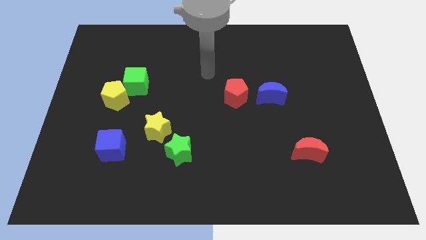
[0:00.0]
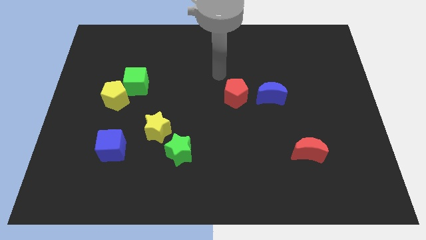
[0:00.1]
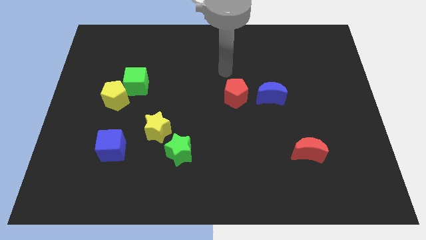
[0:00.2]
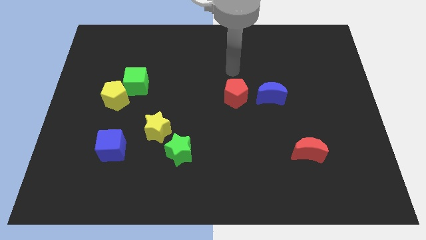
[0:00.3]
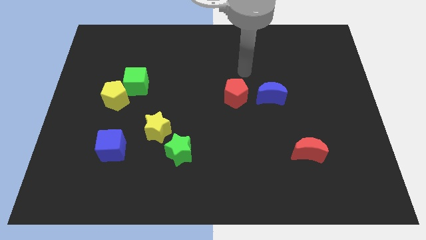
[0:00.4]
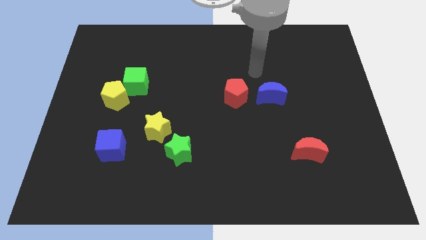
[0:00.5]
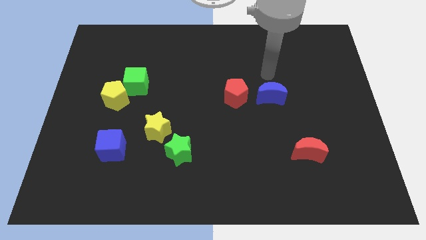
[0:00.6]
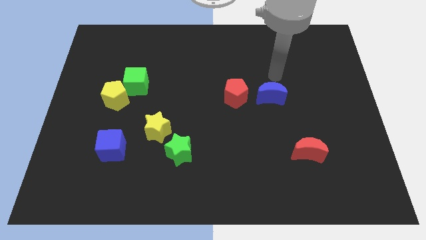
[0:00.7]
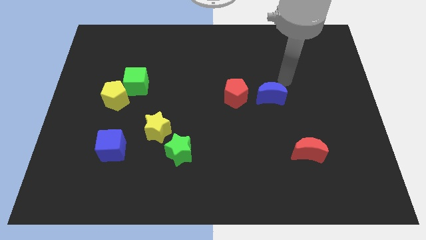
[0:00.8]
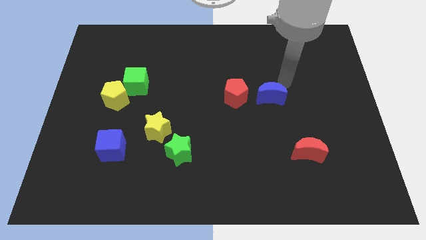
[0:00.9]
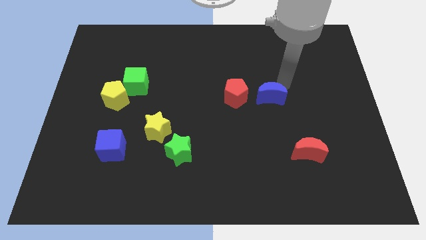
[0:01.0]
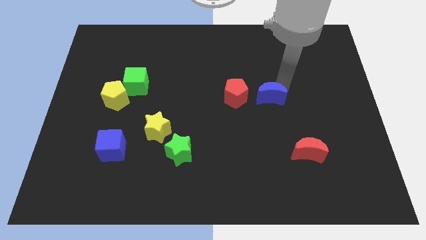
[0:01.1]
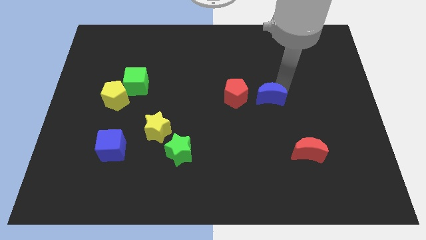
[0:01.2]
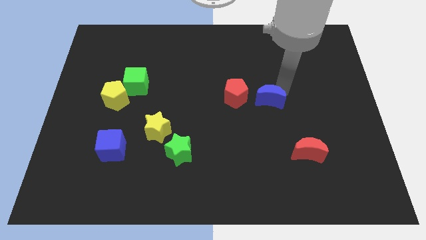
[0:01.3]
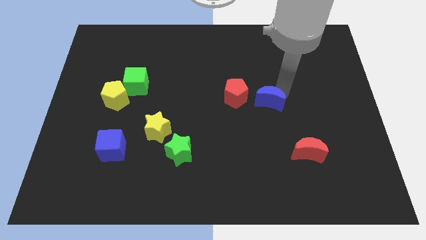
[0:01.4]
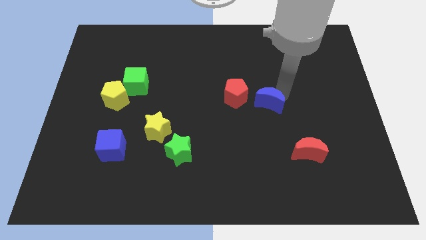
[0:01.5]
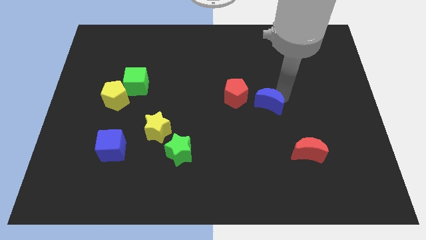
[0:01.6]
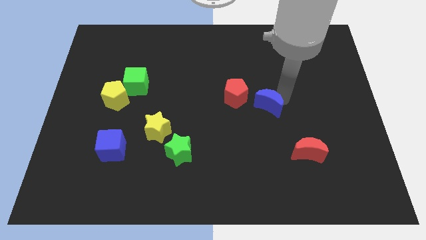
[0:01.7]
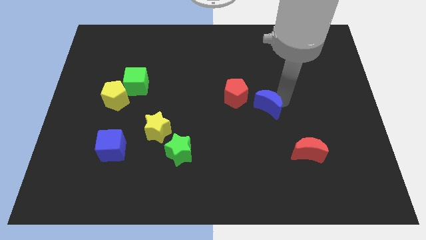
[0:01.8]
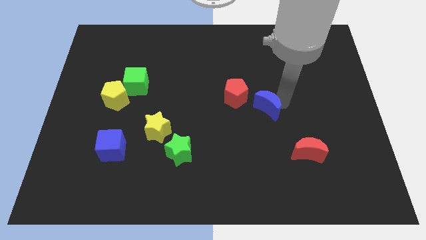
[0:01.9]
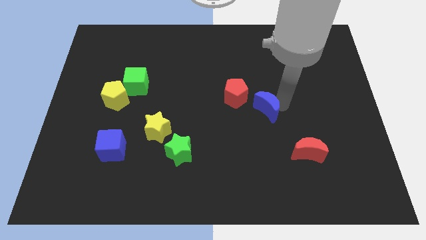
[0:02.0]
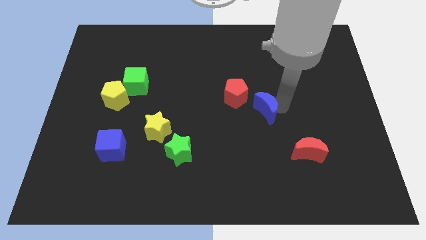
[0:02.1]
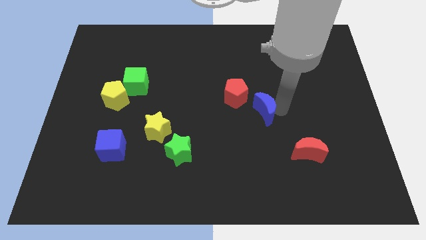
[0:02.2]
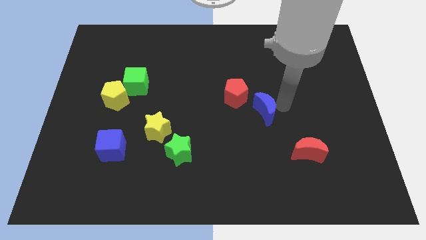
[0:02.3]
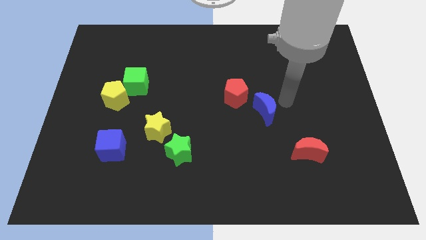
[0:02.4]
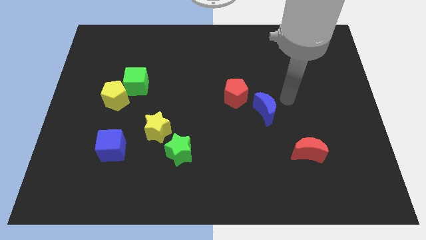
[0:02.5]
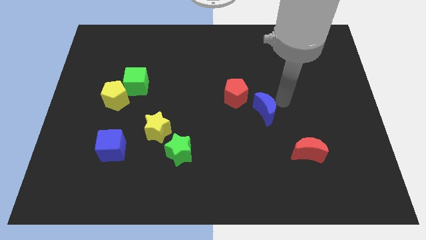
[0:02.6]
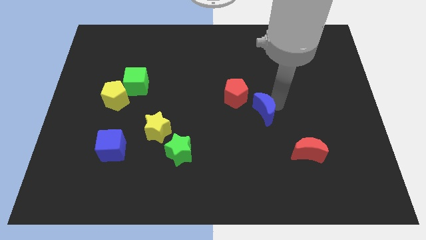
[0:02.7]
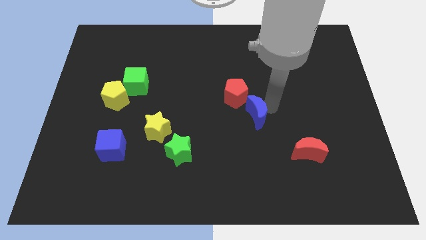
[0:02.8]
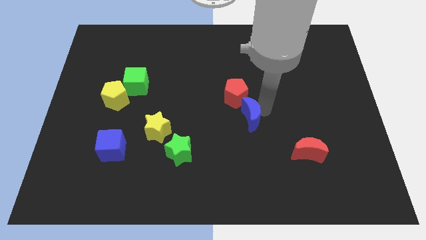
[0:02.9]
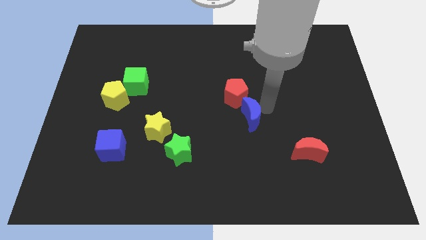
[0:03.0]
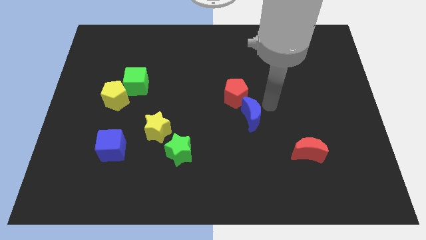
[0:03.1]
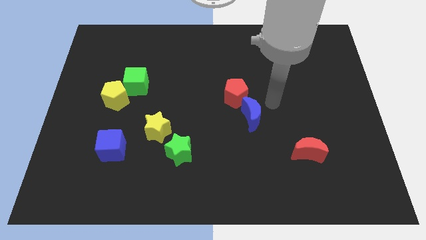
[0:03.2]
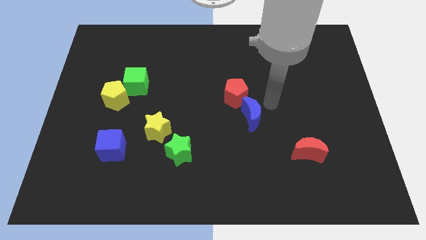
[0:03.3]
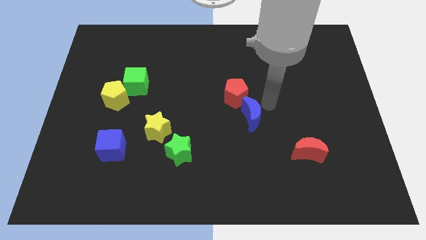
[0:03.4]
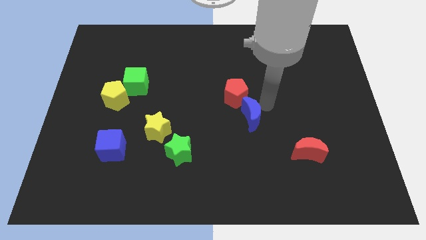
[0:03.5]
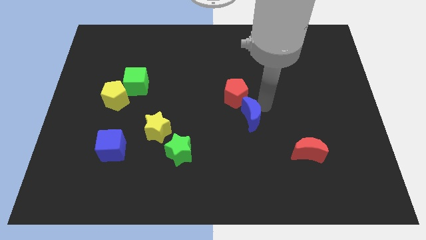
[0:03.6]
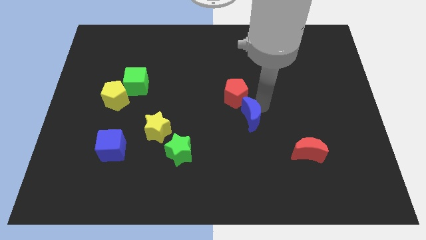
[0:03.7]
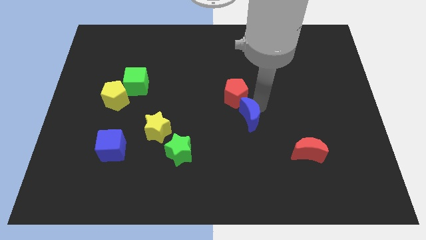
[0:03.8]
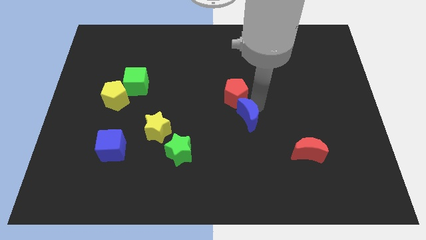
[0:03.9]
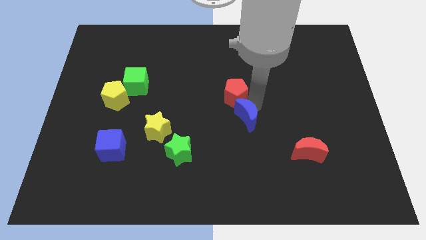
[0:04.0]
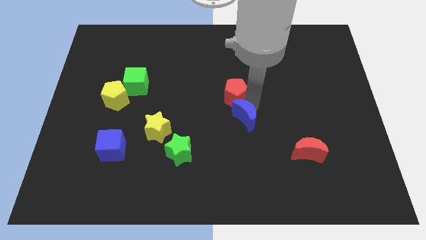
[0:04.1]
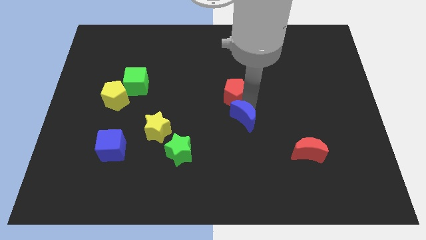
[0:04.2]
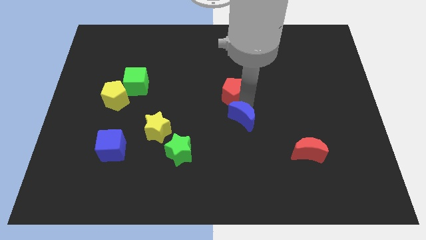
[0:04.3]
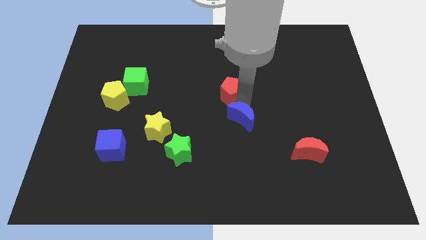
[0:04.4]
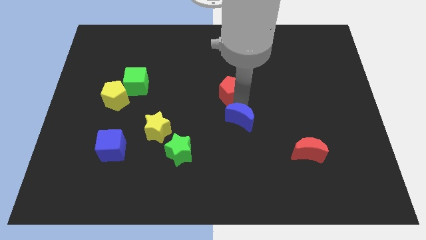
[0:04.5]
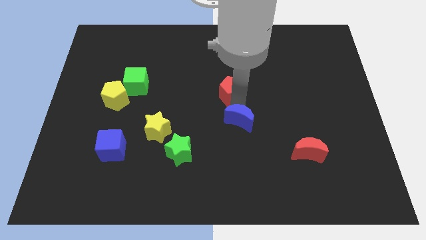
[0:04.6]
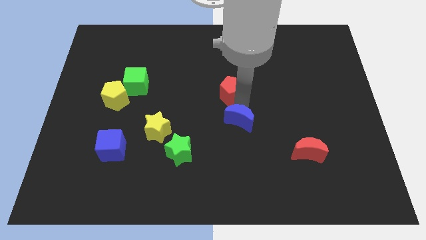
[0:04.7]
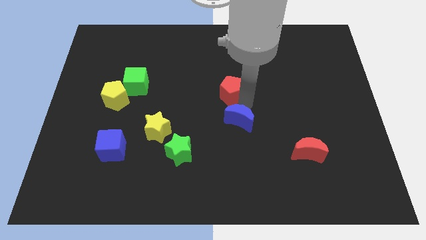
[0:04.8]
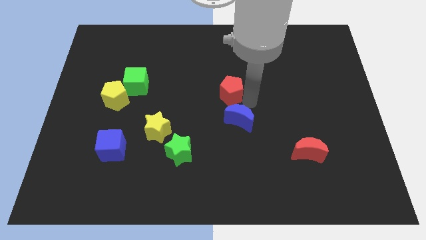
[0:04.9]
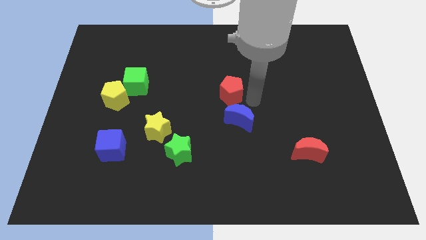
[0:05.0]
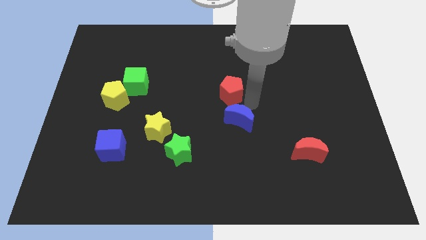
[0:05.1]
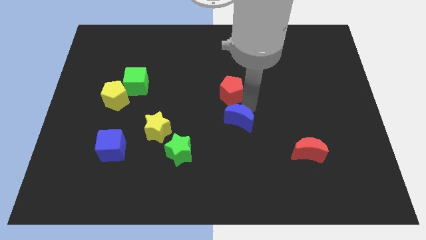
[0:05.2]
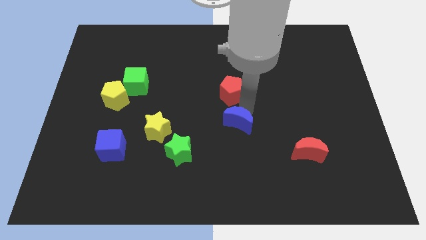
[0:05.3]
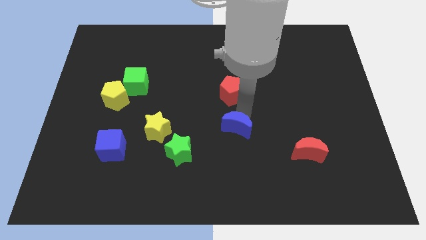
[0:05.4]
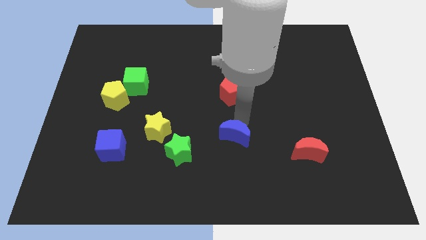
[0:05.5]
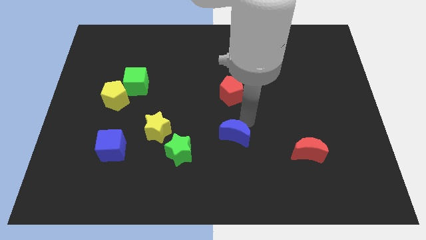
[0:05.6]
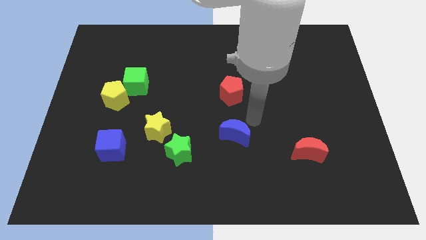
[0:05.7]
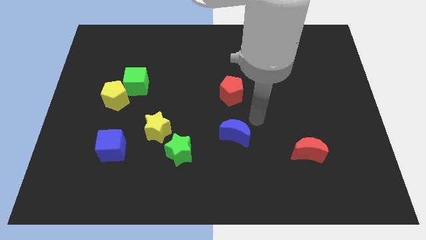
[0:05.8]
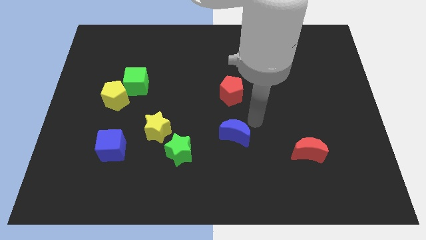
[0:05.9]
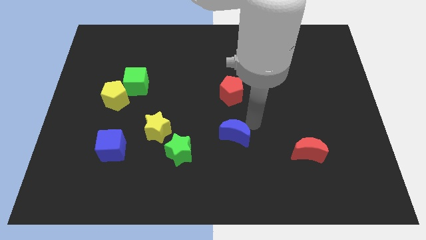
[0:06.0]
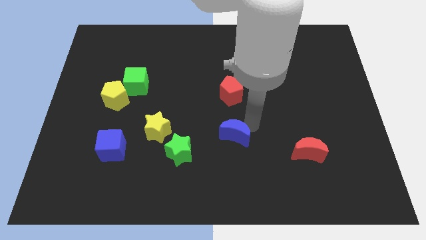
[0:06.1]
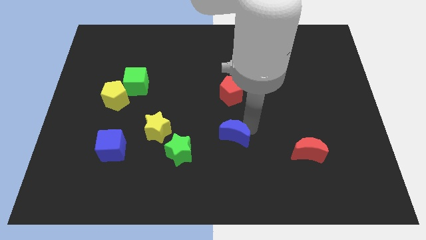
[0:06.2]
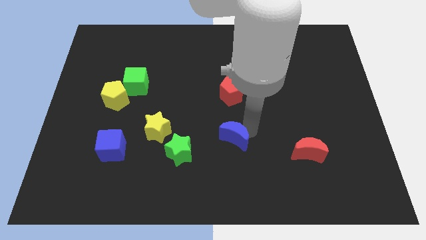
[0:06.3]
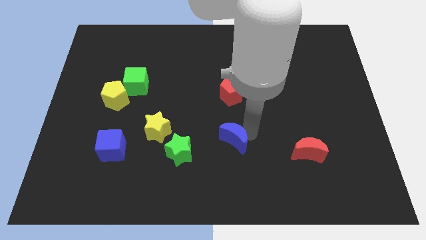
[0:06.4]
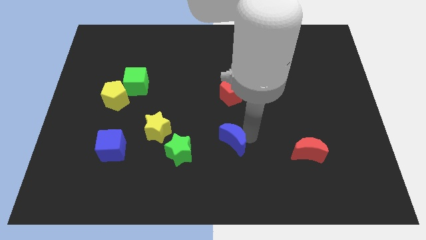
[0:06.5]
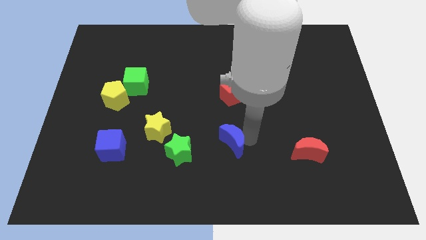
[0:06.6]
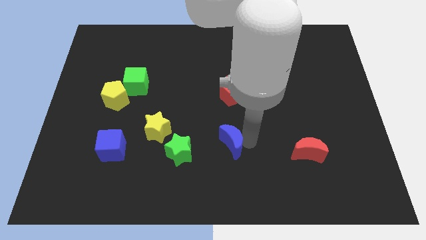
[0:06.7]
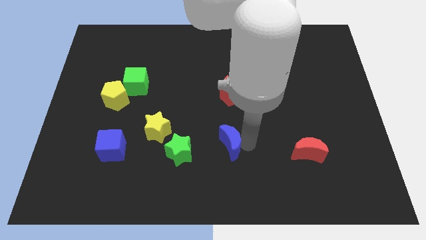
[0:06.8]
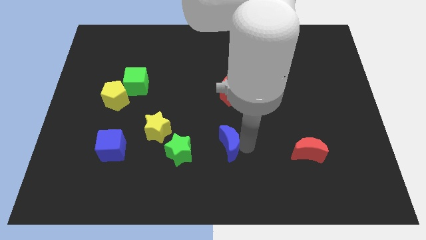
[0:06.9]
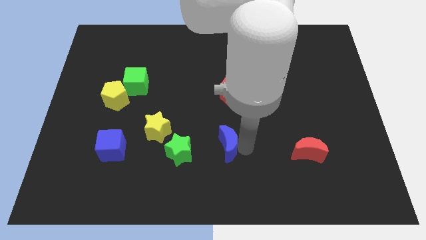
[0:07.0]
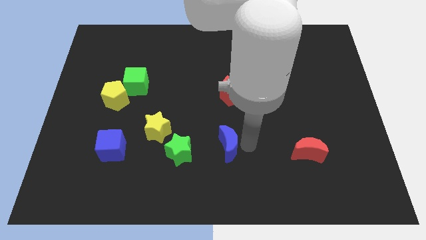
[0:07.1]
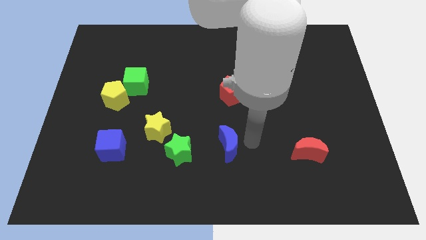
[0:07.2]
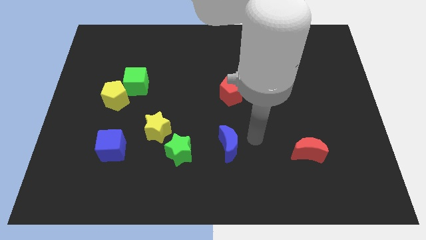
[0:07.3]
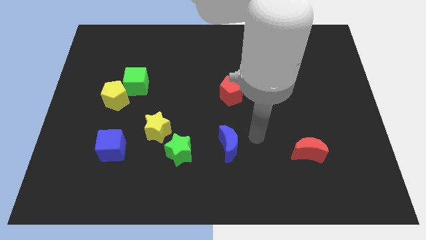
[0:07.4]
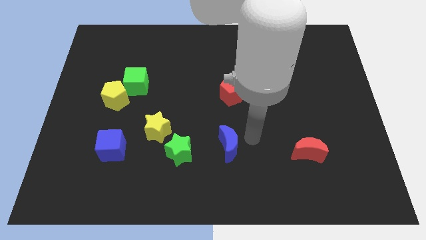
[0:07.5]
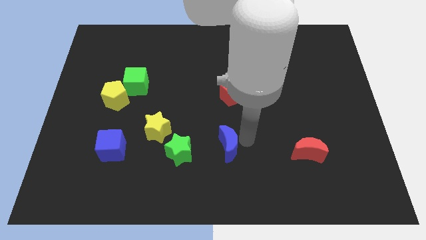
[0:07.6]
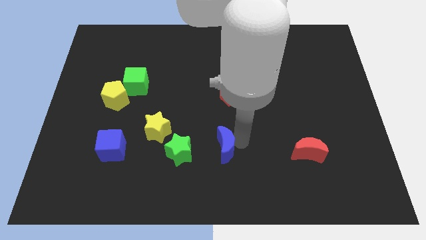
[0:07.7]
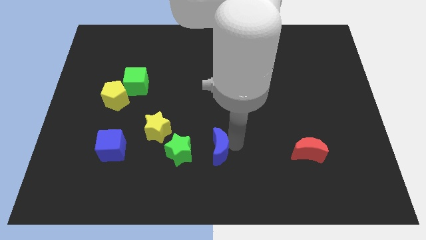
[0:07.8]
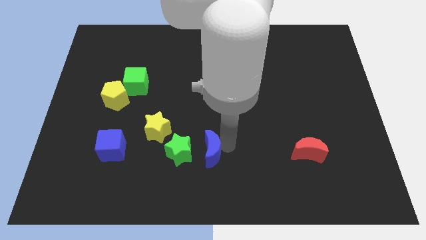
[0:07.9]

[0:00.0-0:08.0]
move the blue moon diagonally down and left
